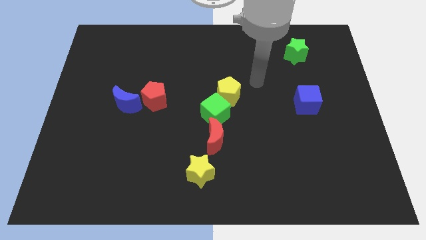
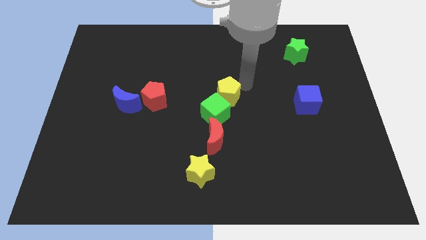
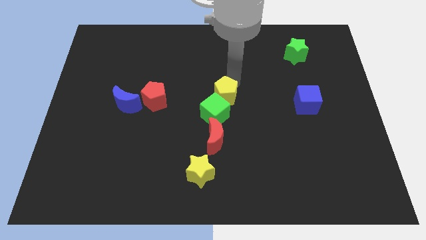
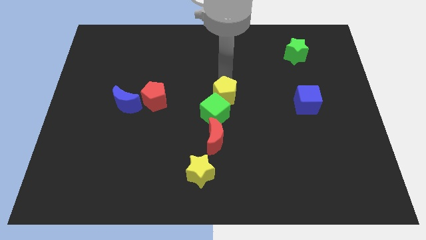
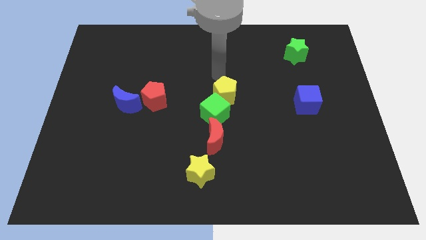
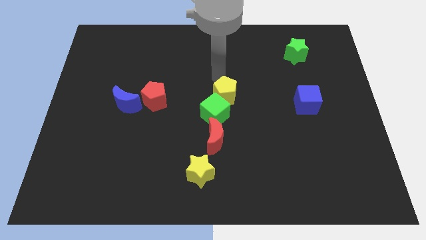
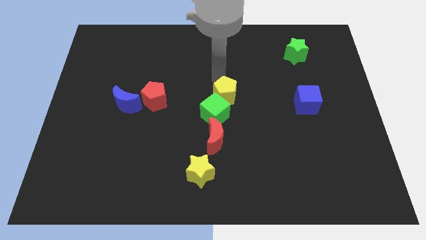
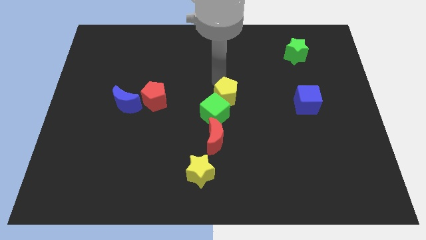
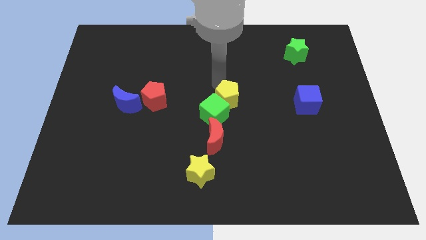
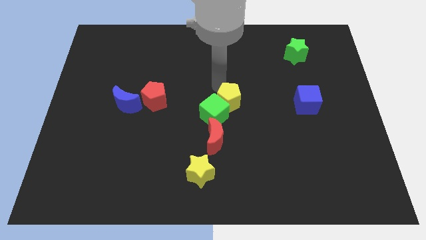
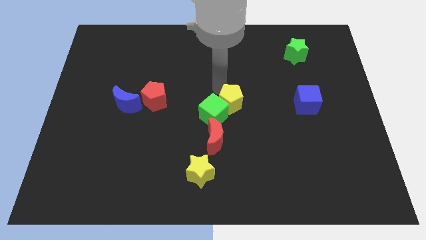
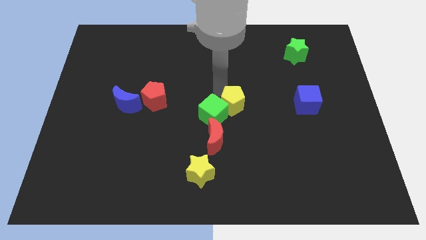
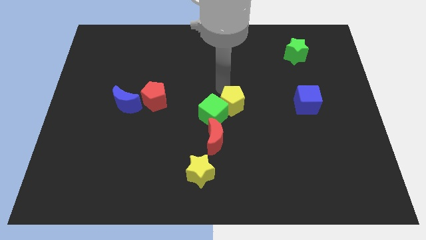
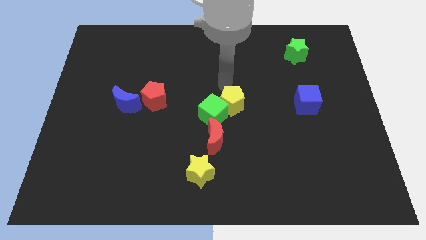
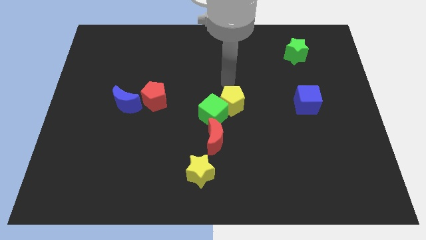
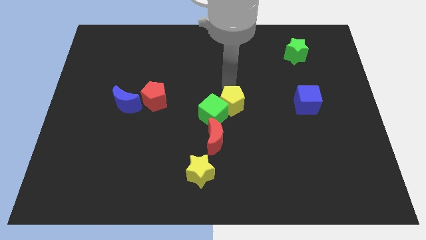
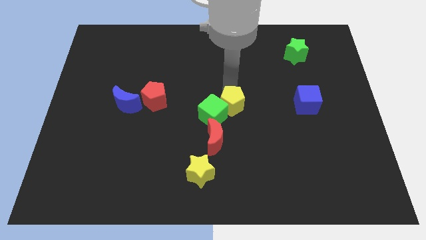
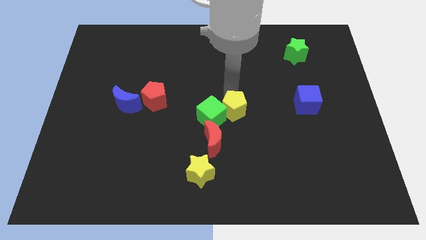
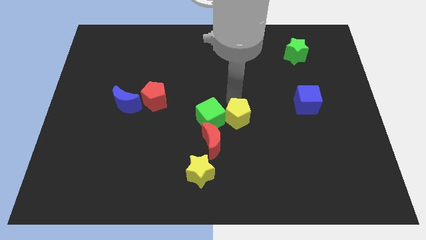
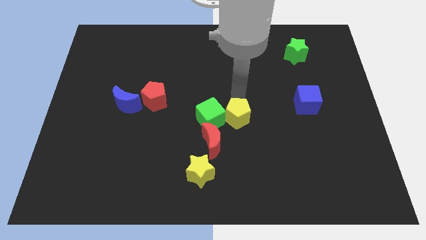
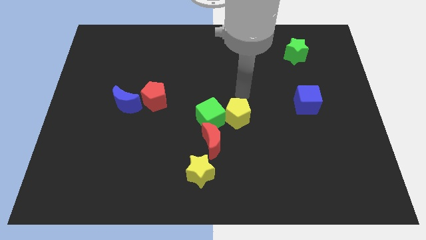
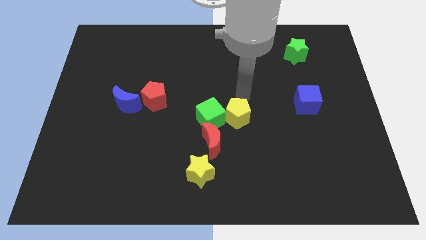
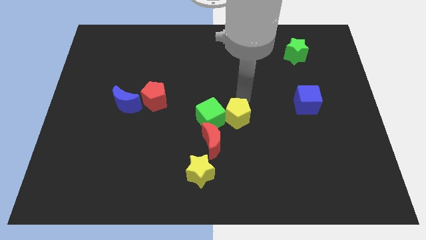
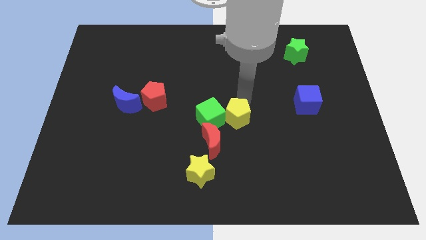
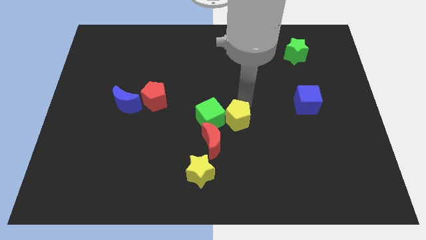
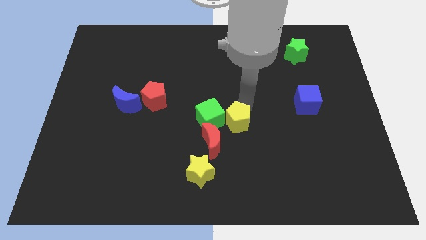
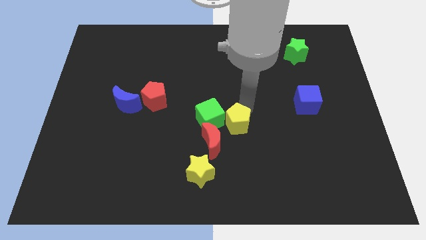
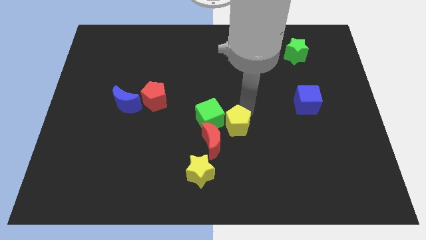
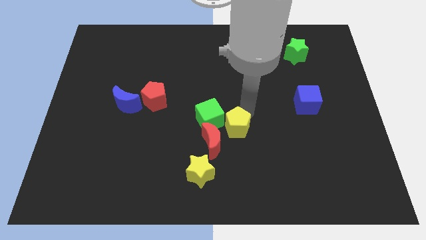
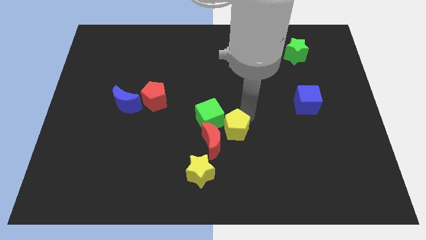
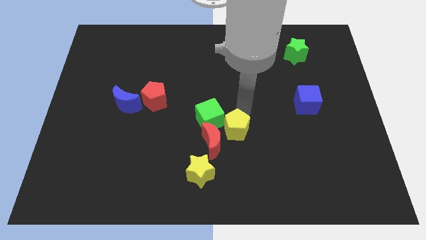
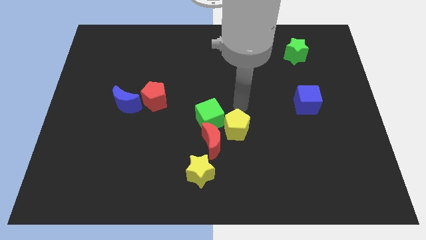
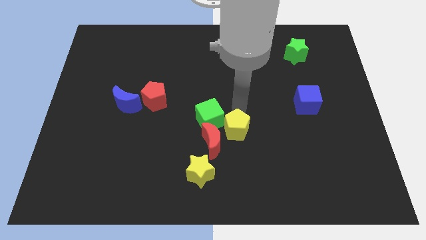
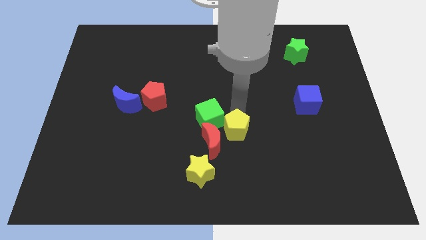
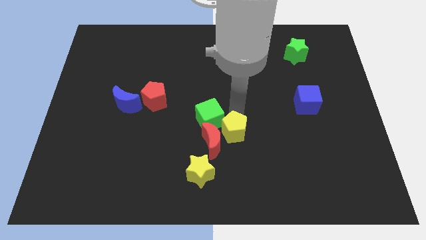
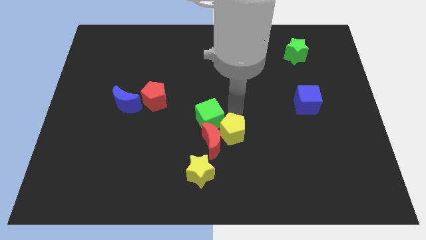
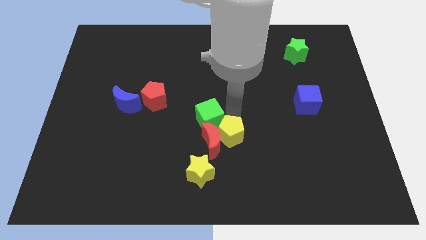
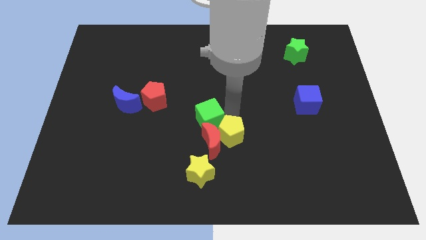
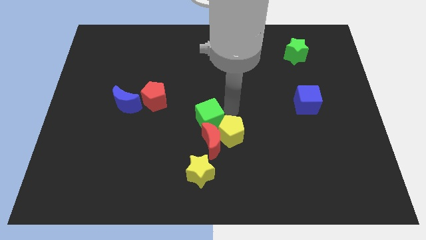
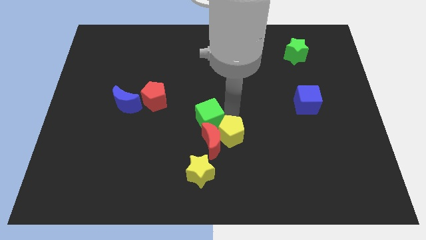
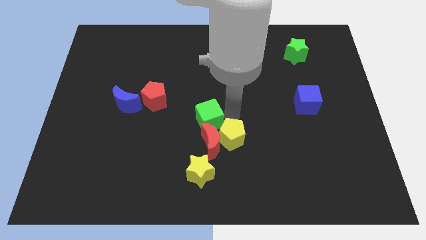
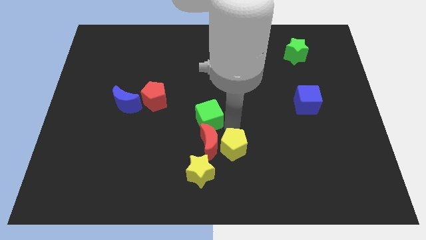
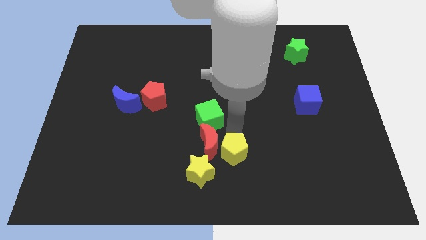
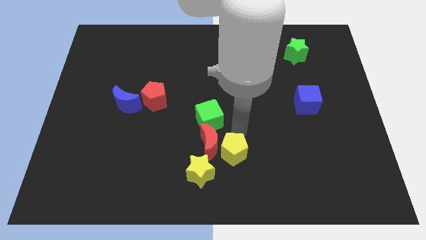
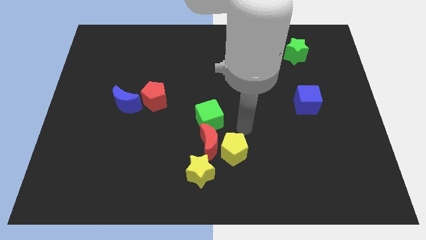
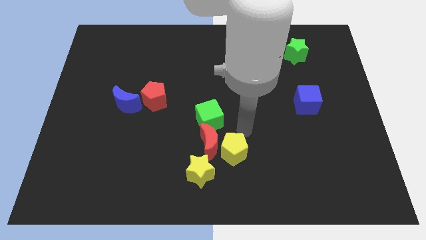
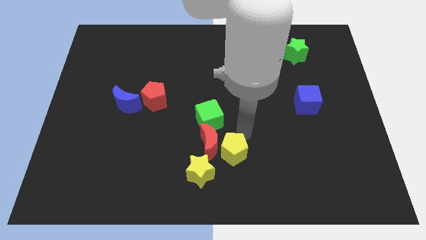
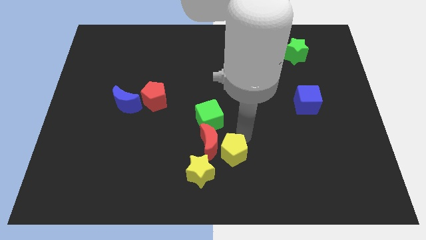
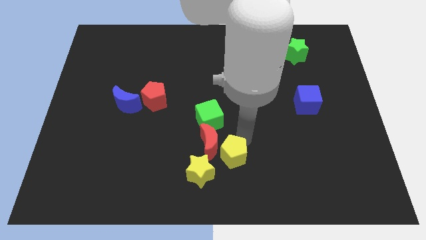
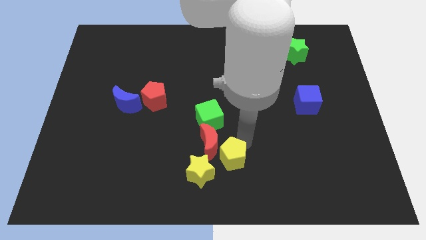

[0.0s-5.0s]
put the yellow pentagon to the bottom

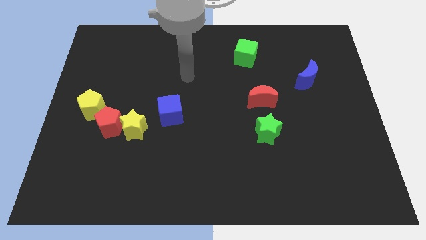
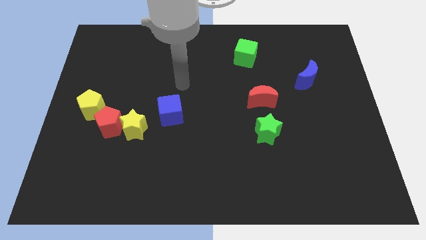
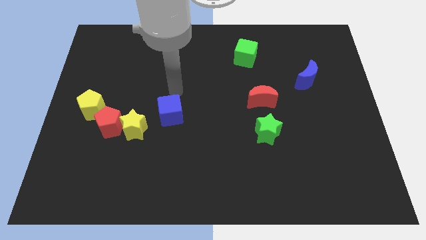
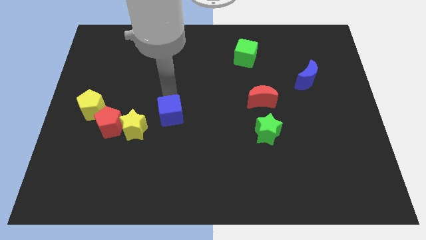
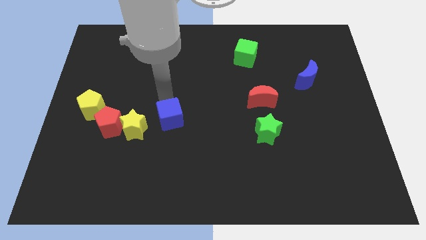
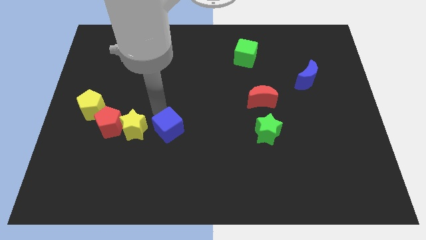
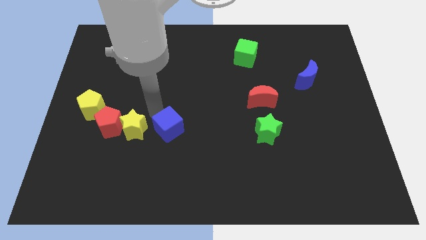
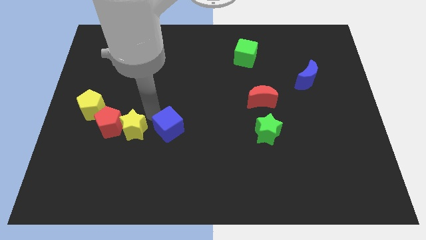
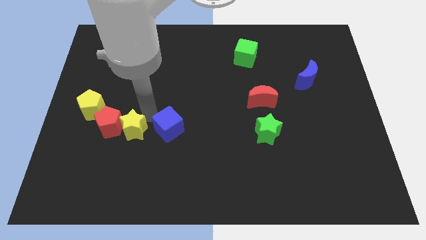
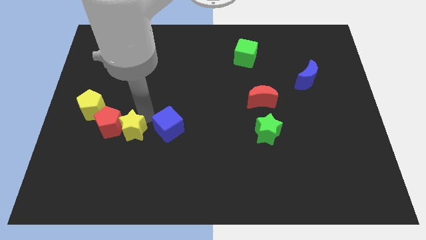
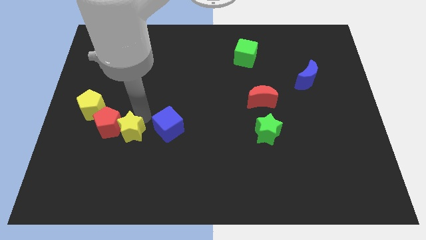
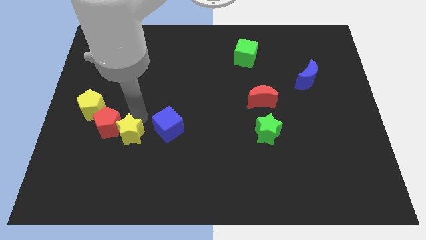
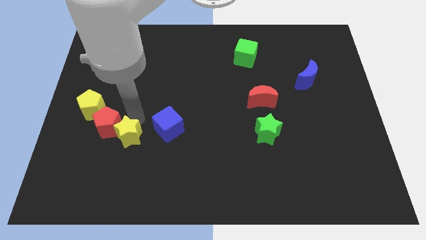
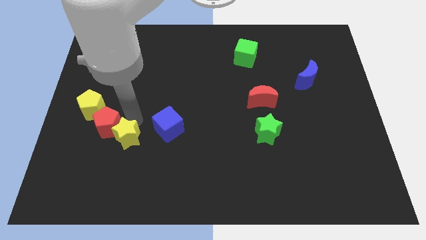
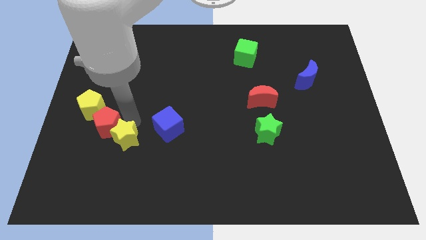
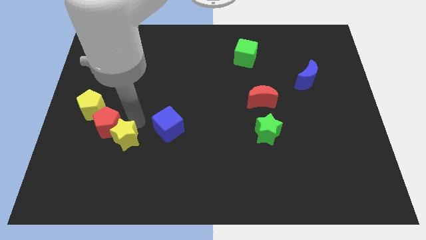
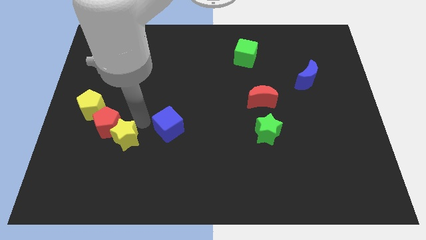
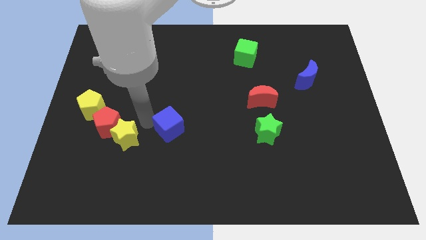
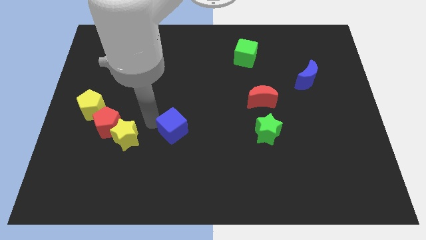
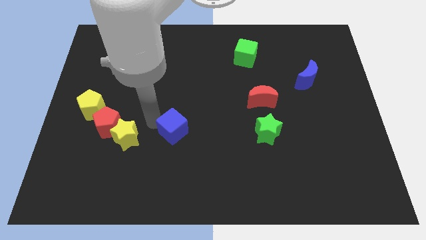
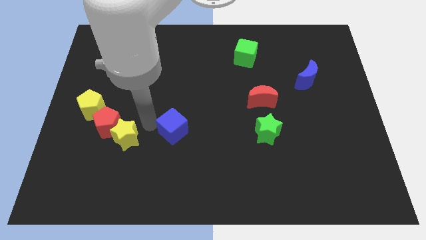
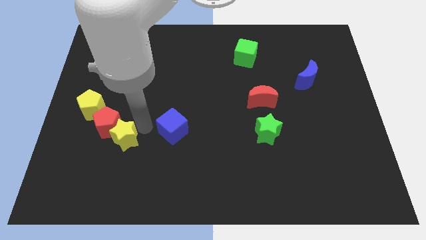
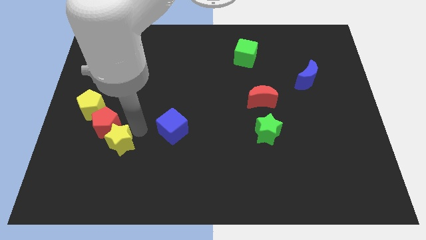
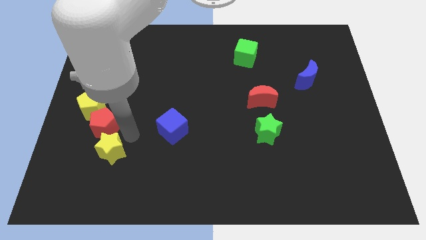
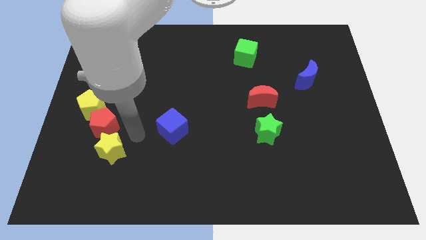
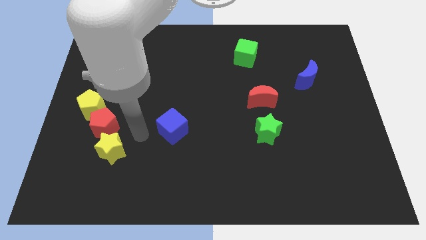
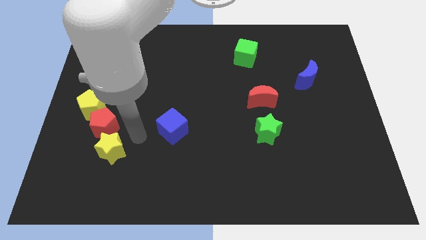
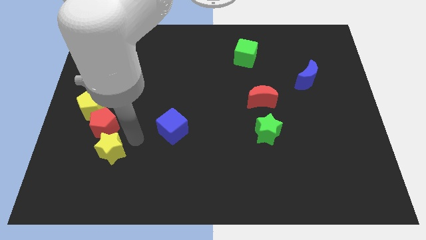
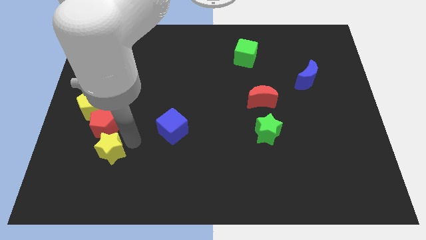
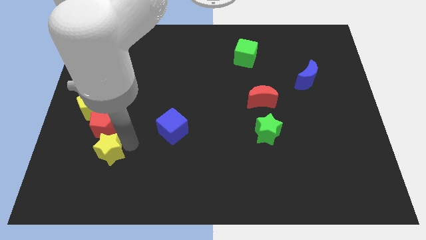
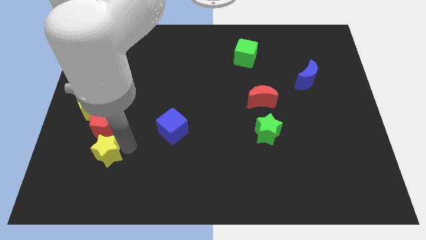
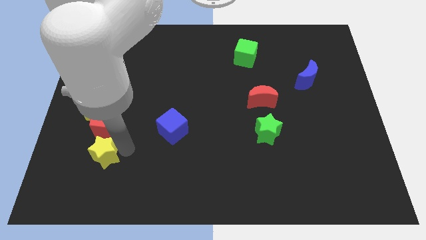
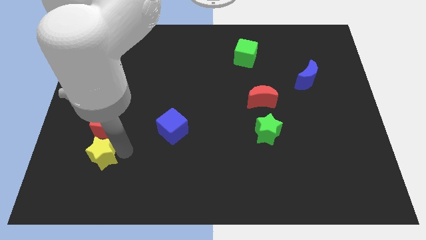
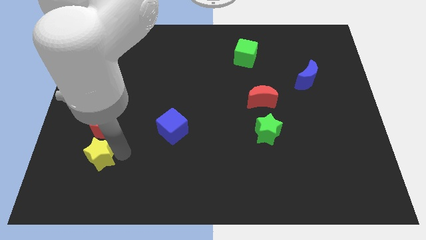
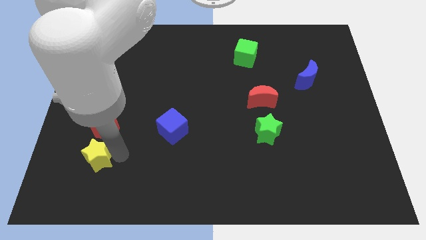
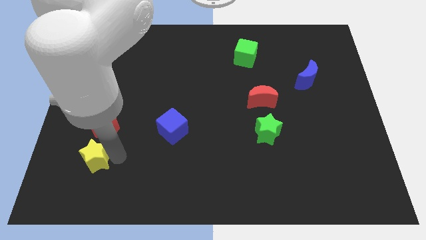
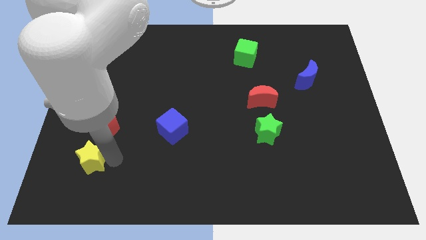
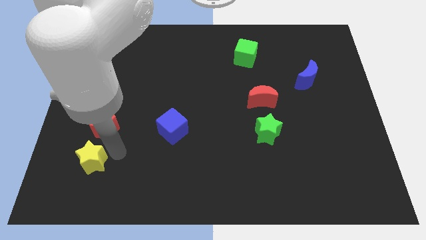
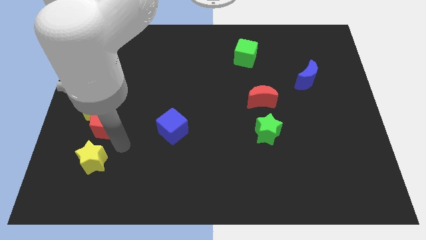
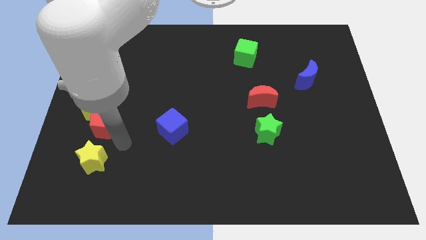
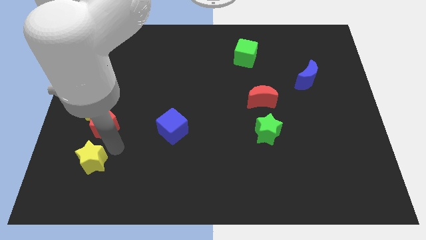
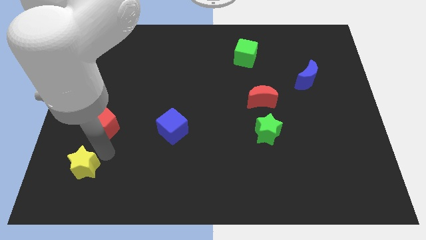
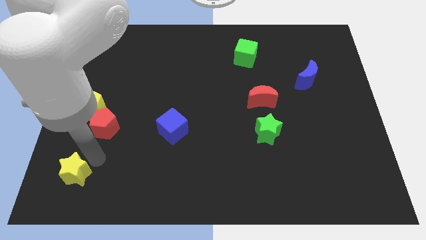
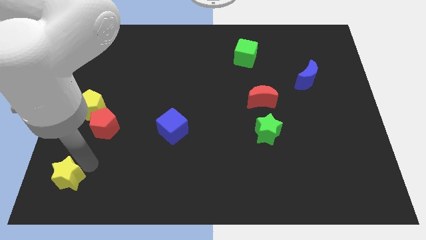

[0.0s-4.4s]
move the yellow star to the lower left corner
